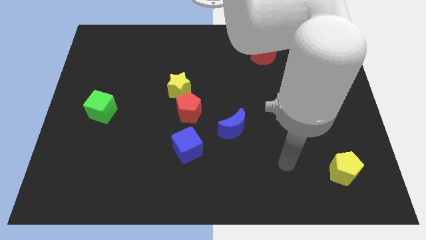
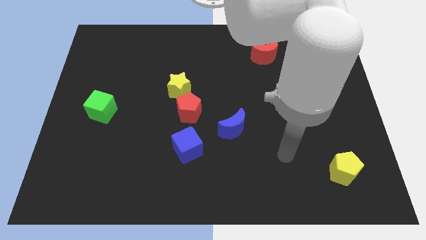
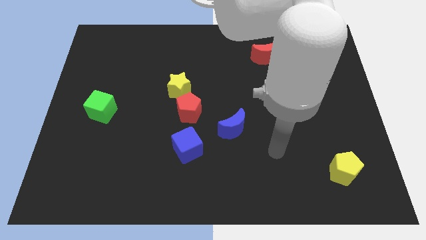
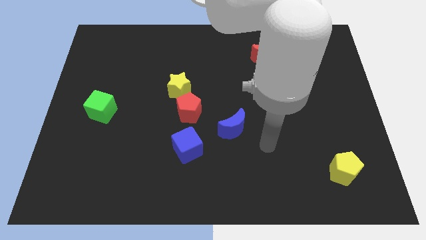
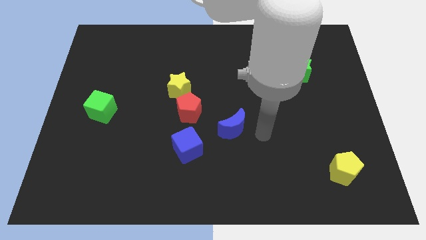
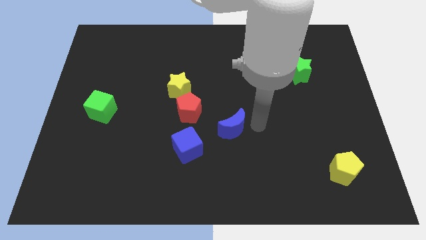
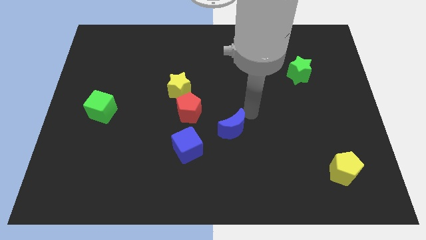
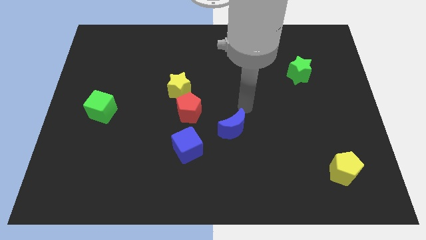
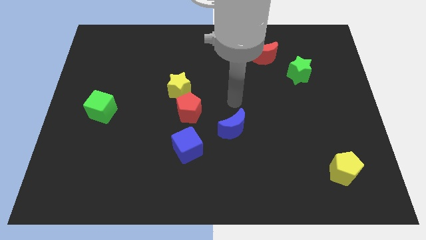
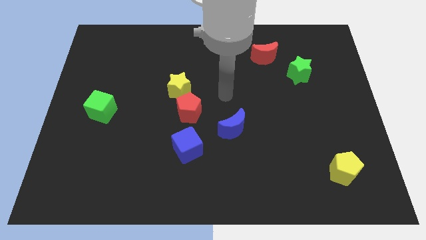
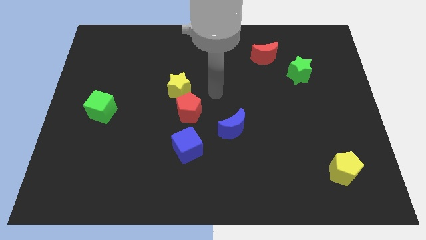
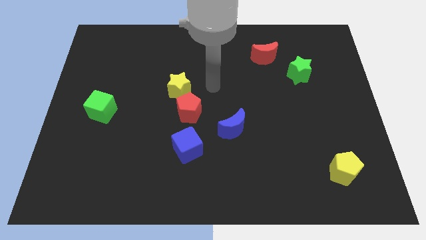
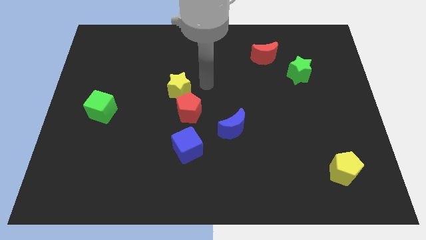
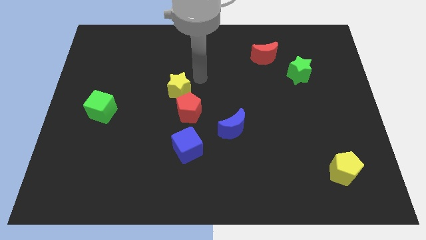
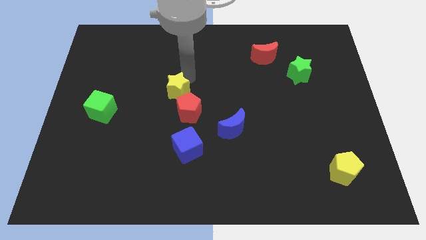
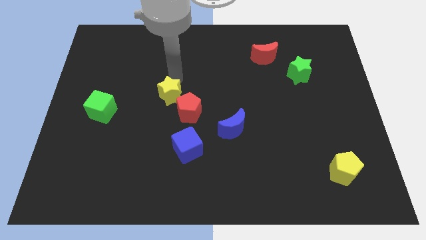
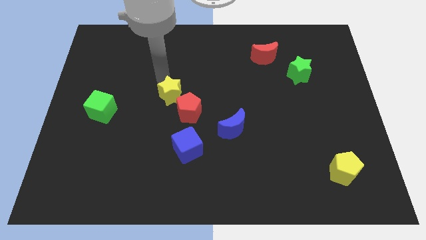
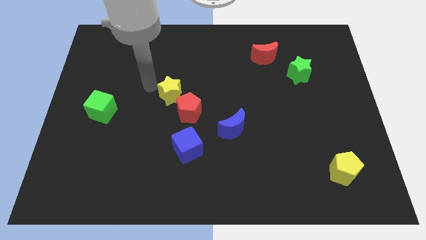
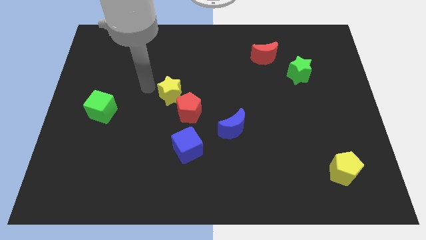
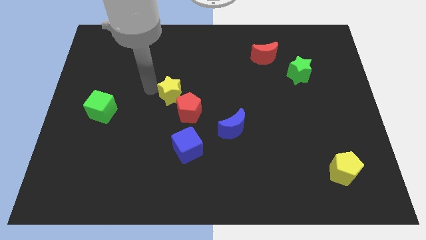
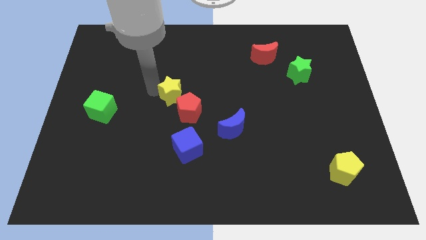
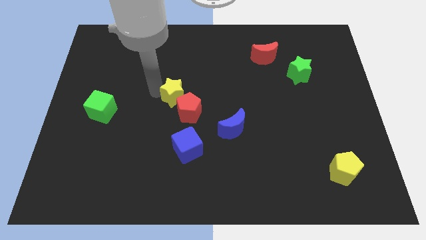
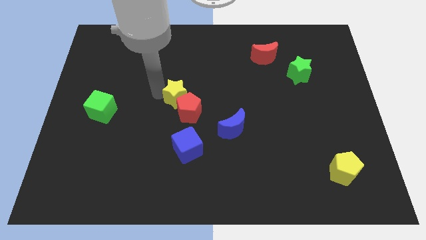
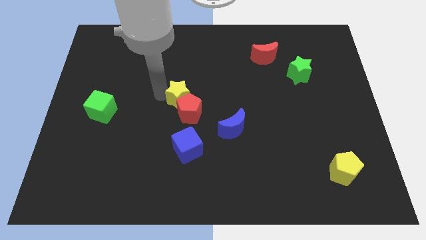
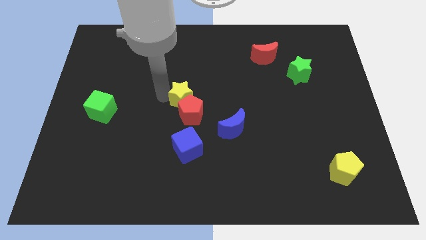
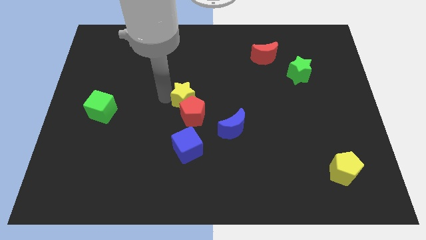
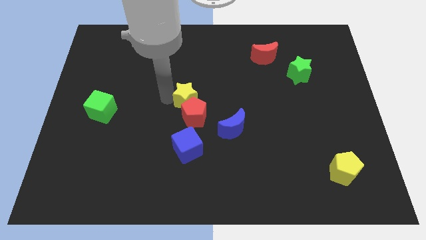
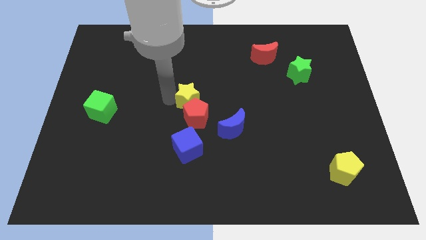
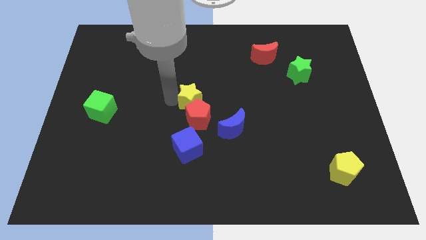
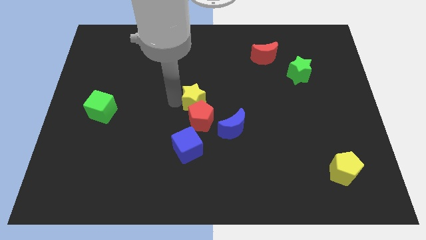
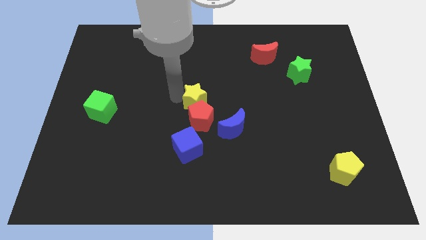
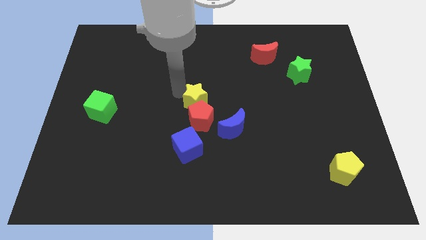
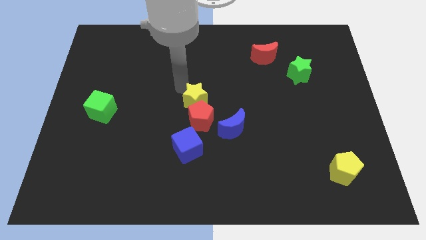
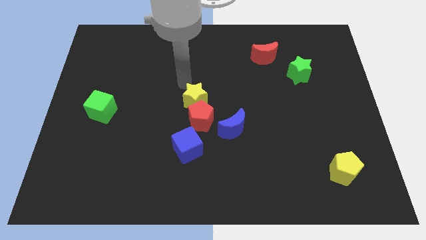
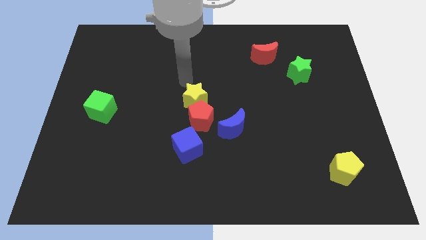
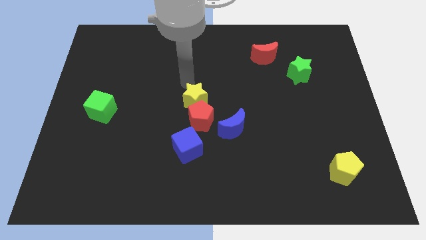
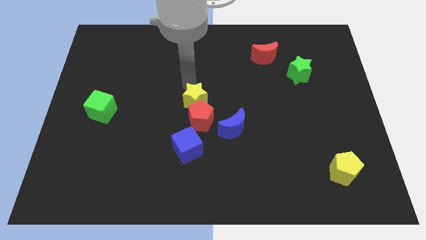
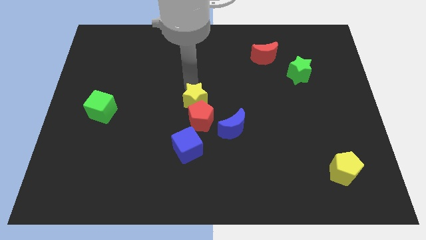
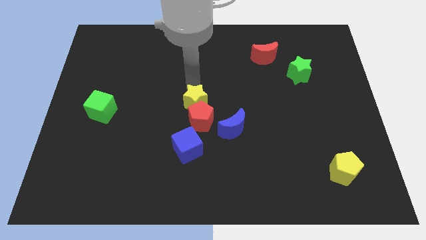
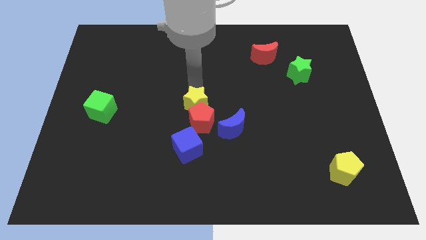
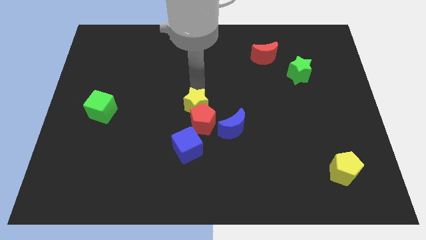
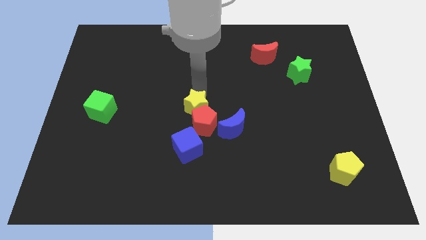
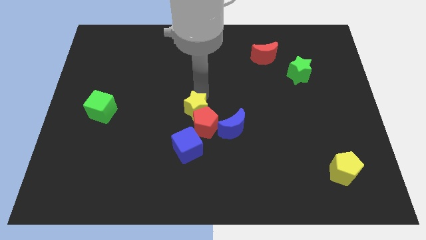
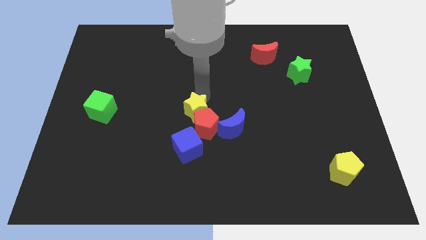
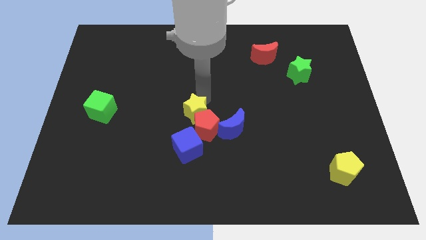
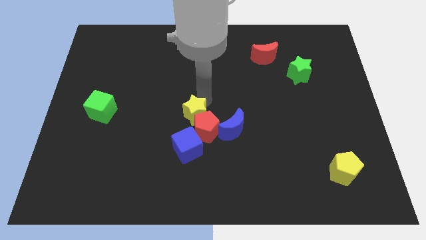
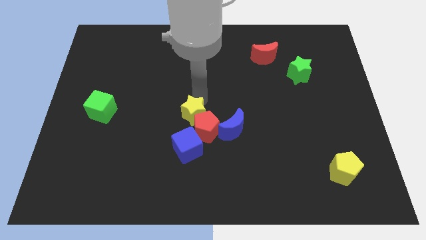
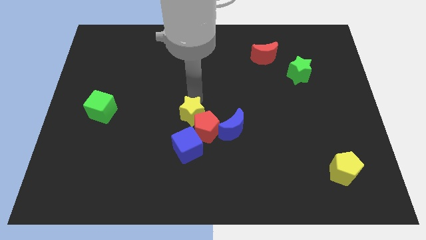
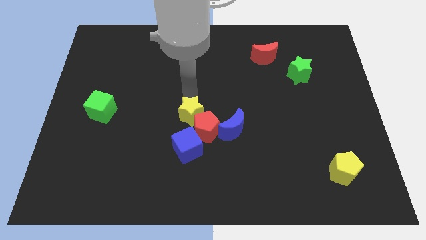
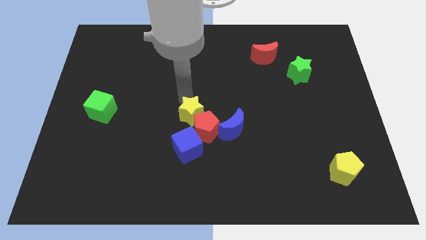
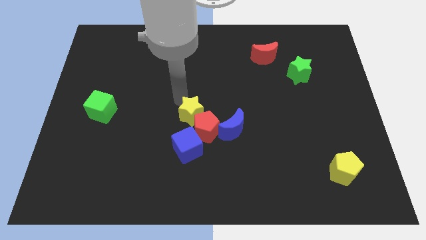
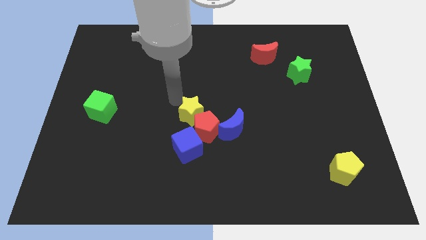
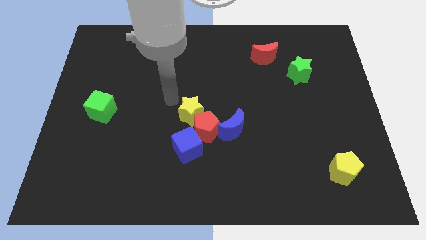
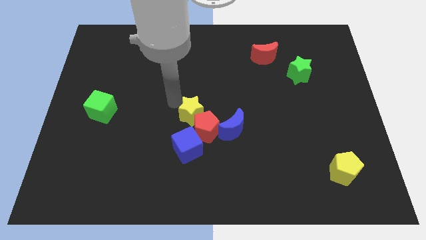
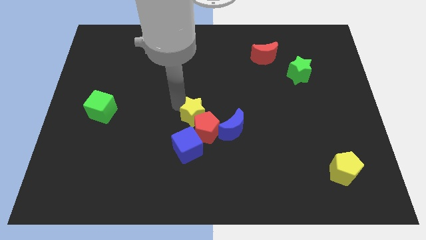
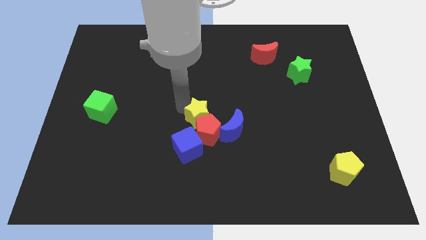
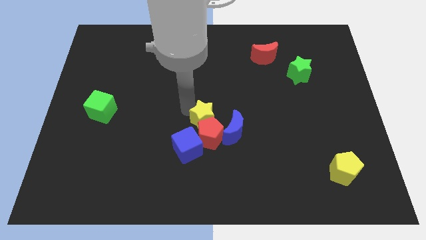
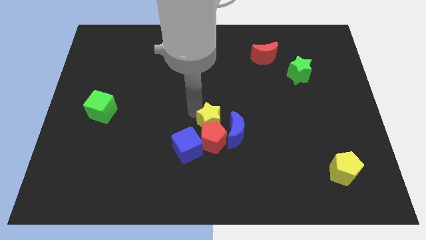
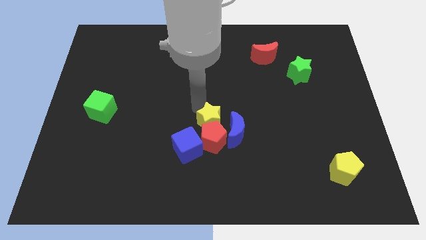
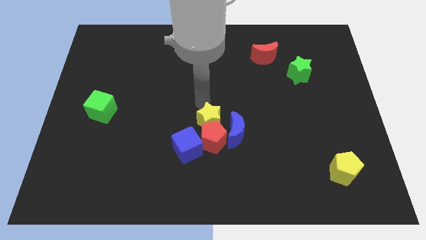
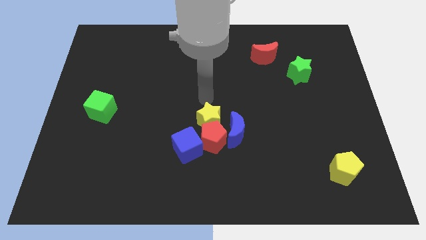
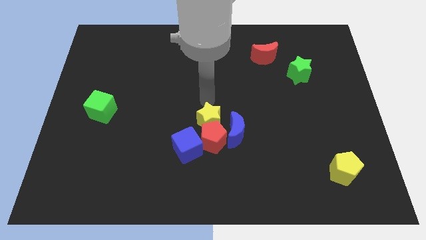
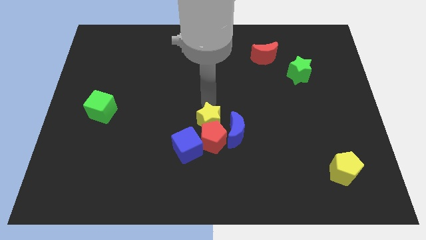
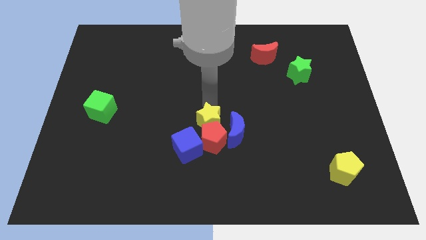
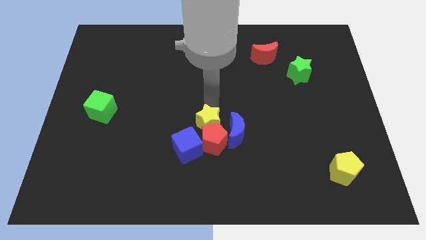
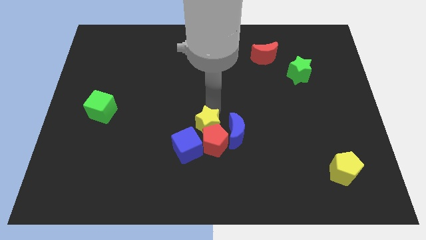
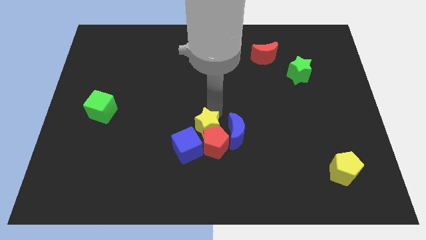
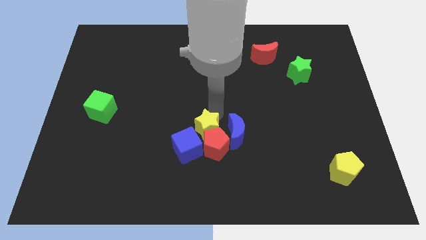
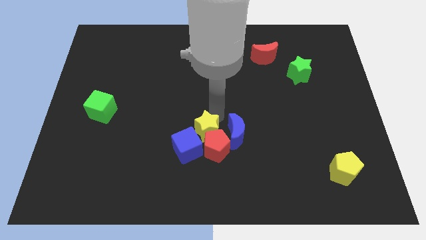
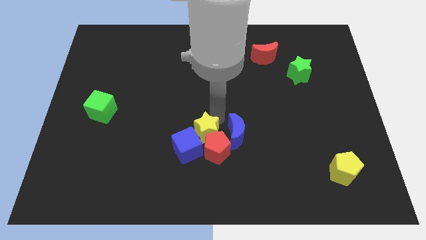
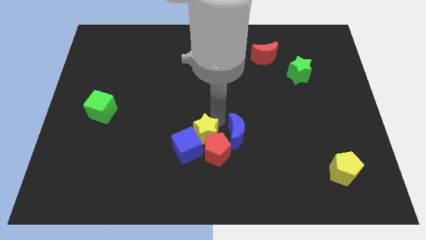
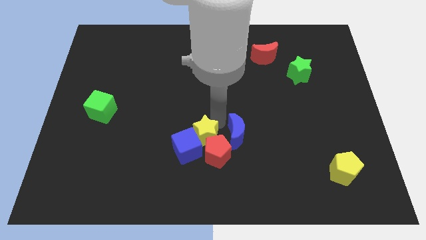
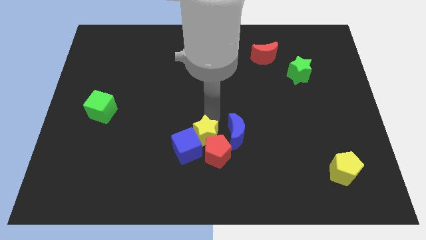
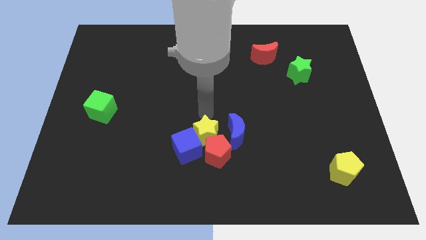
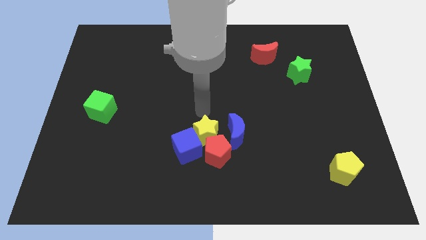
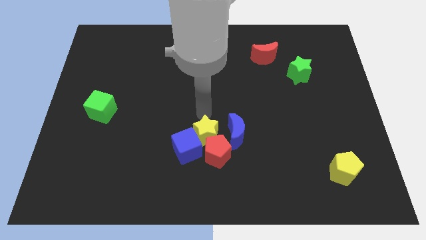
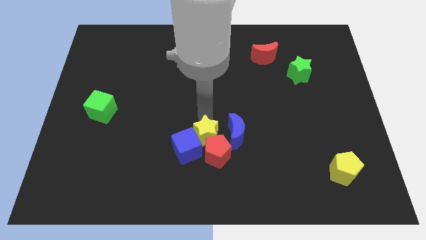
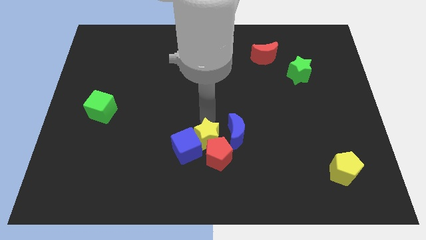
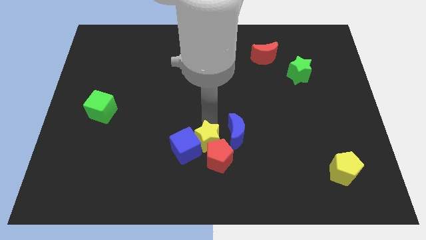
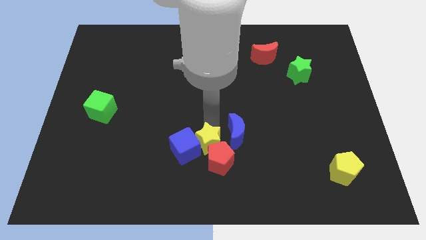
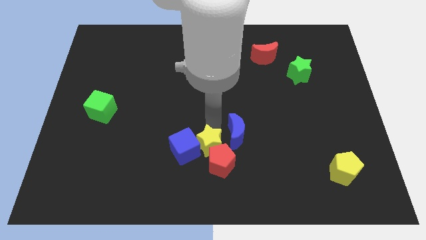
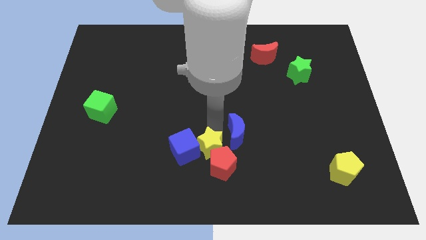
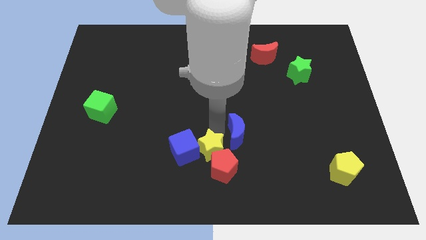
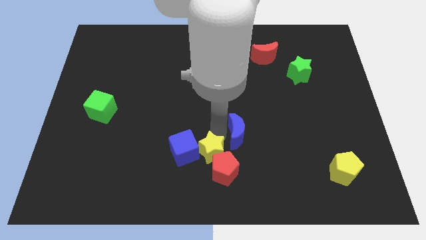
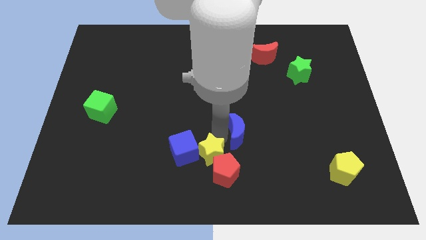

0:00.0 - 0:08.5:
slide the yellow star to the bottom
